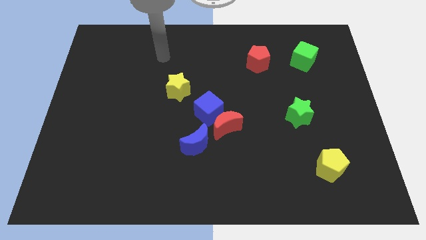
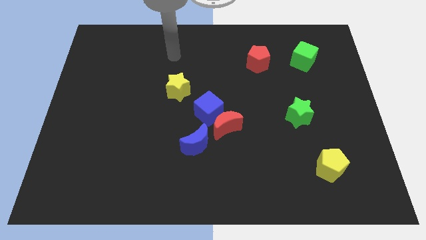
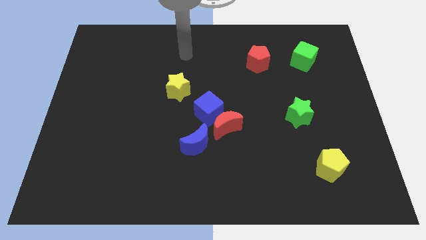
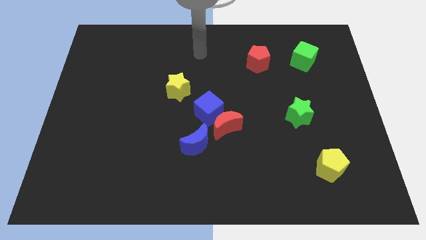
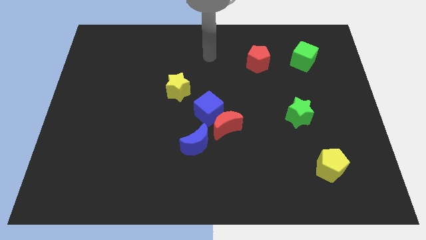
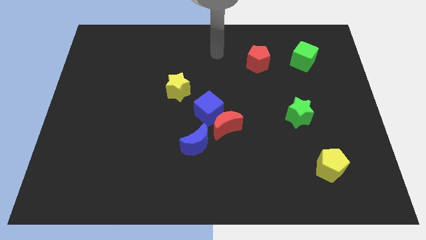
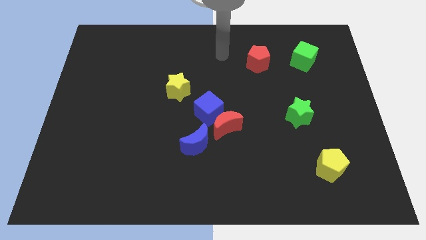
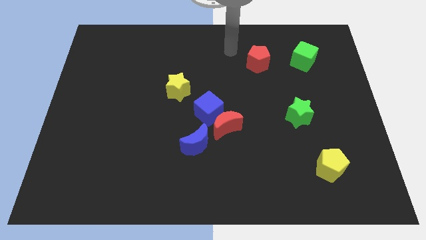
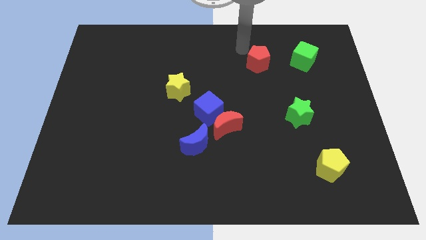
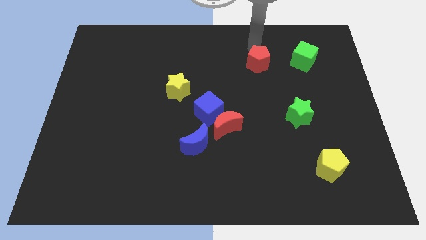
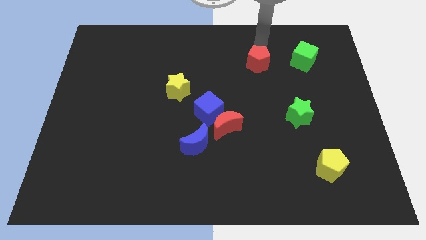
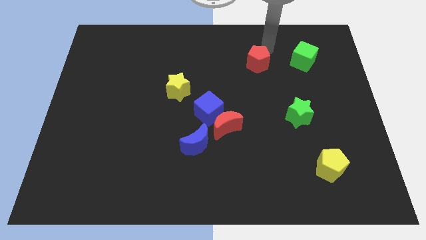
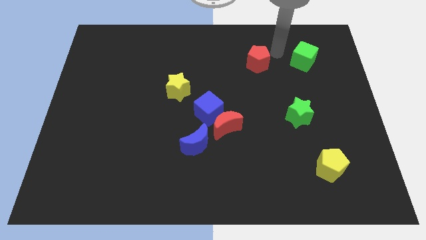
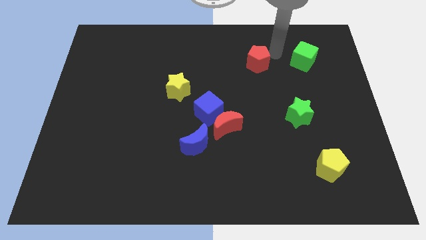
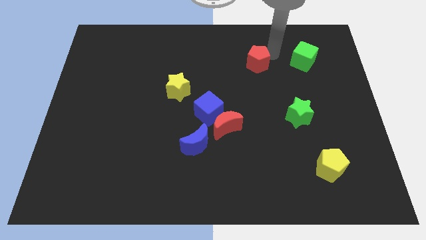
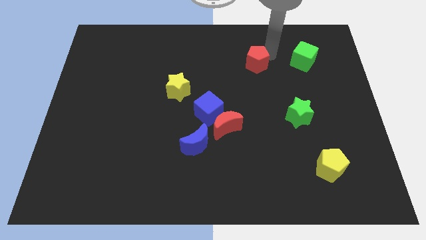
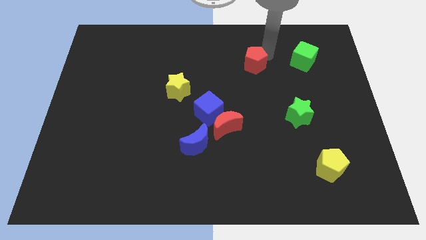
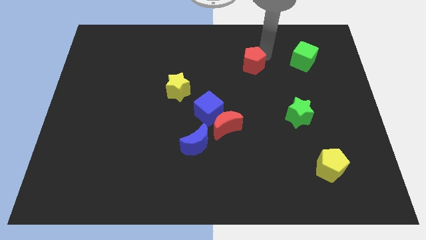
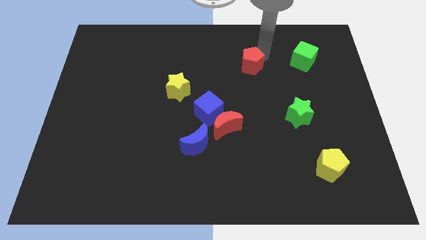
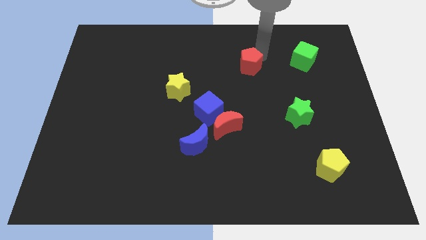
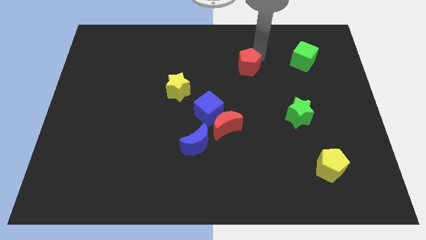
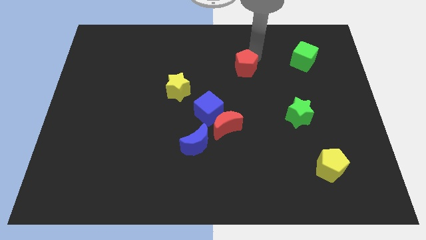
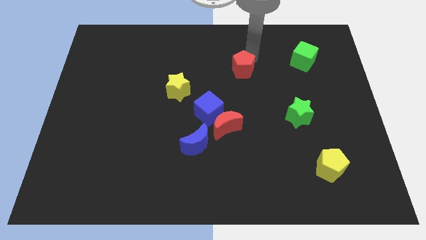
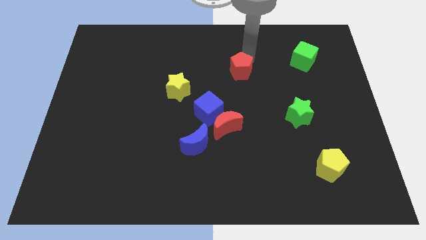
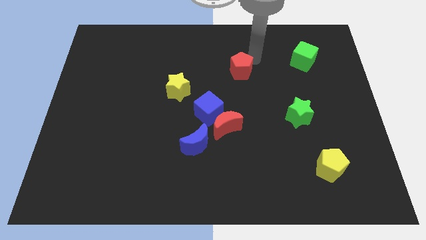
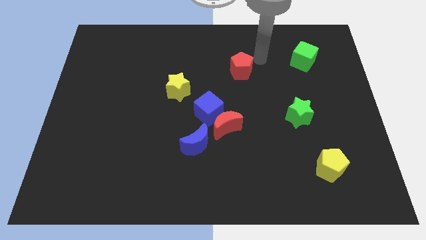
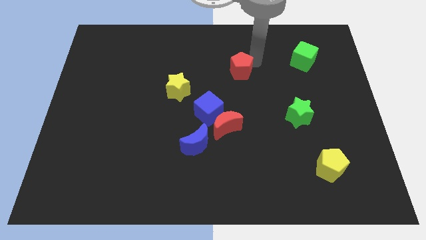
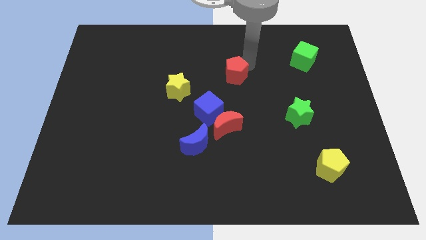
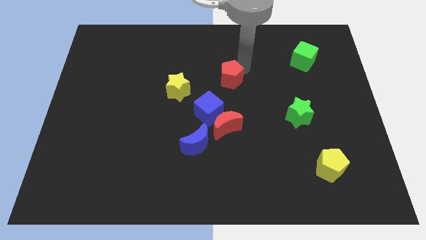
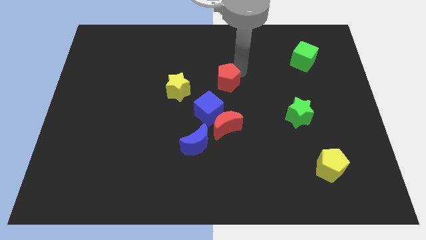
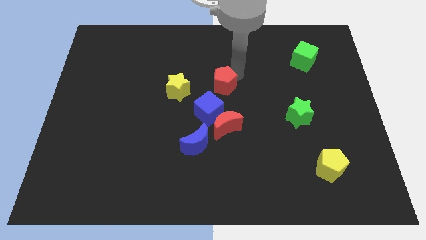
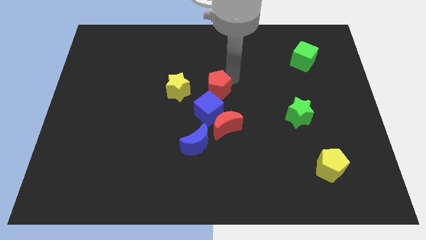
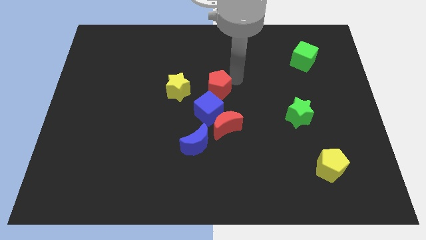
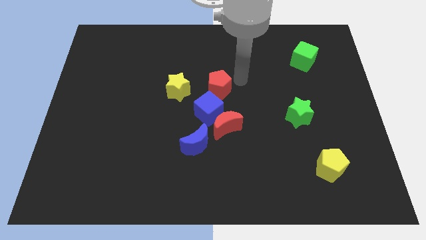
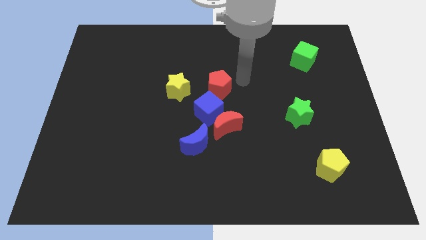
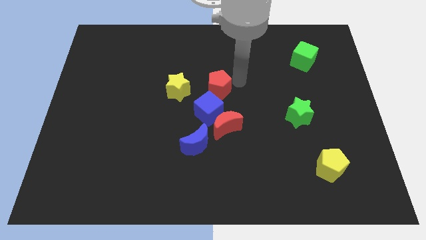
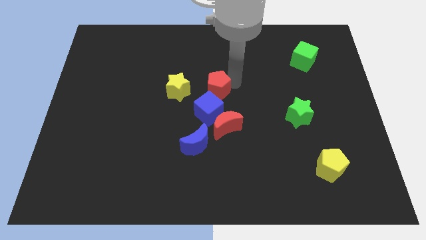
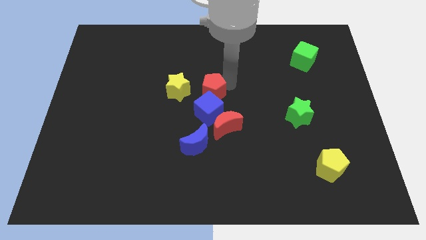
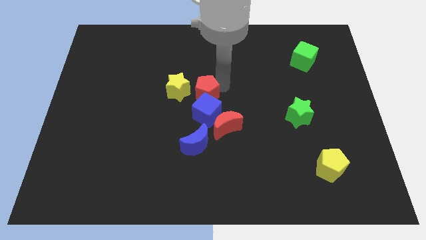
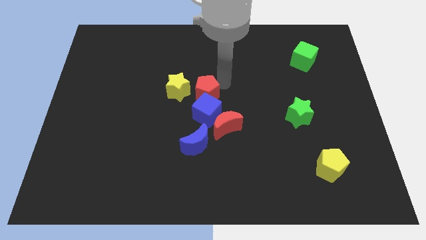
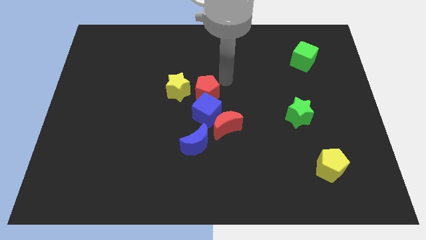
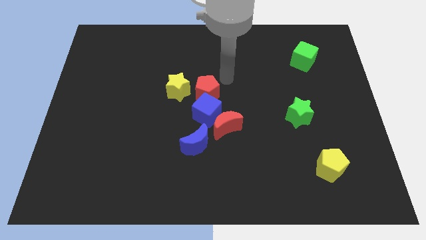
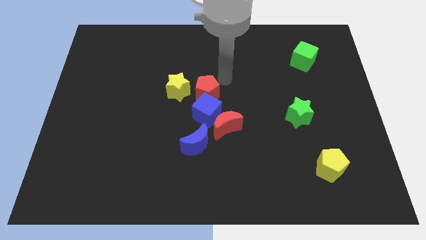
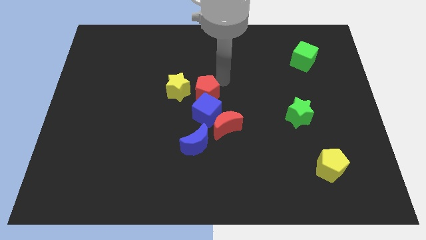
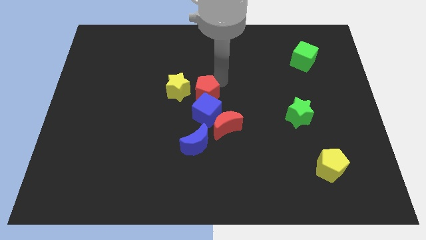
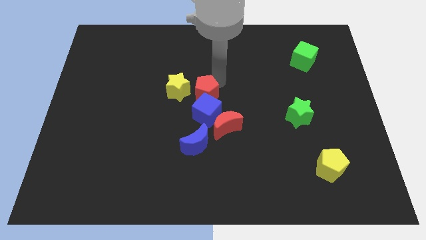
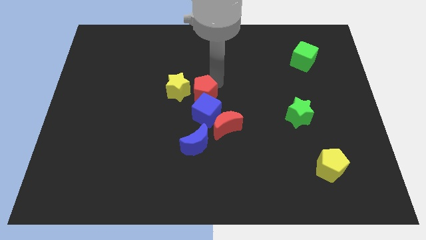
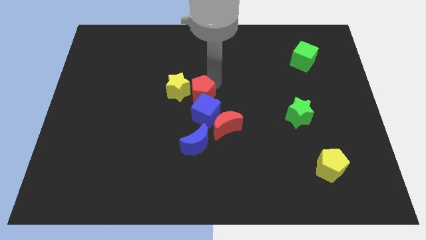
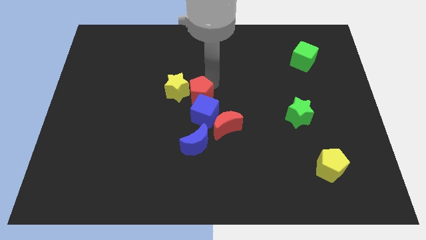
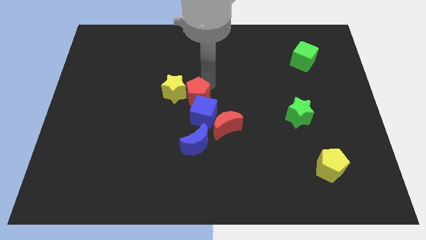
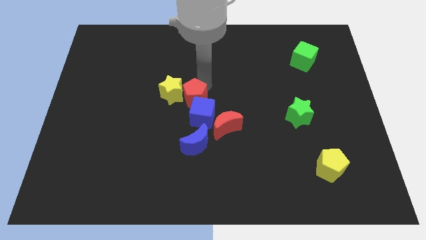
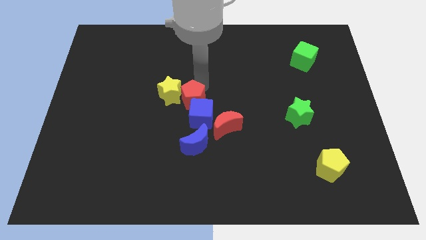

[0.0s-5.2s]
push the red pentagon downwards and to the left

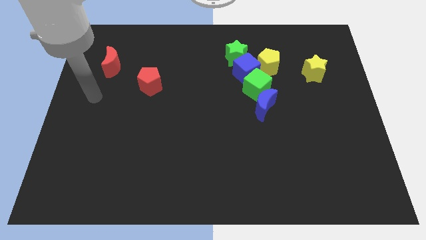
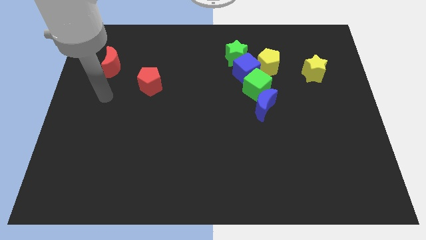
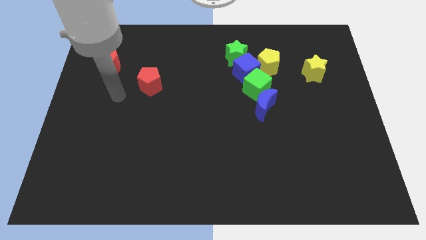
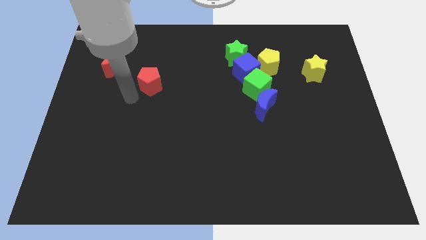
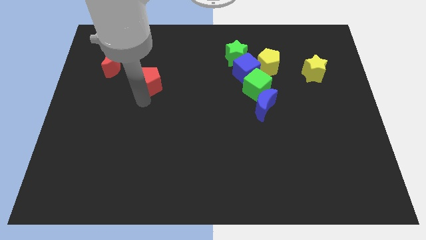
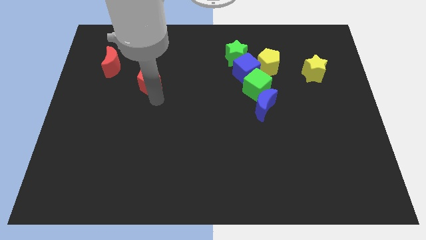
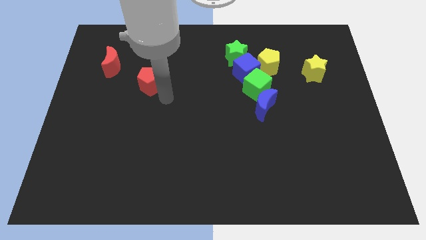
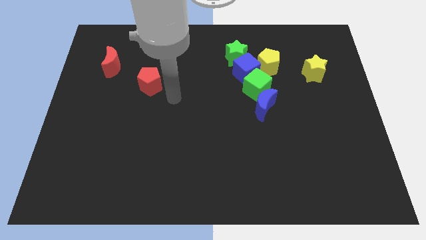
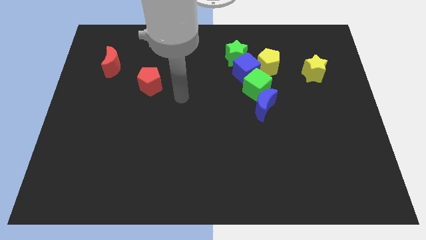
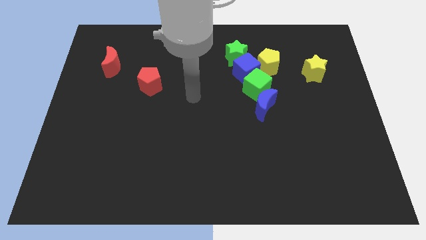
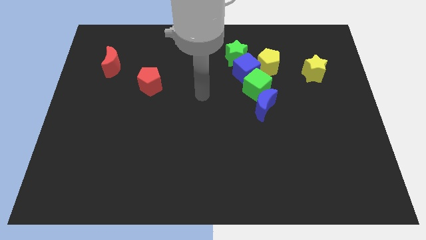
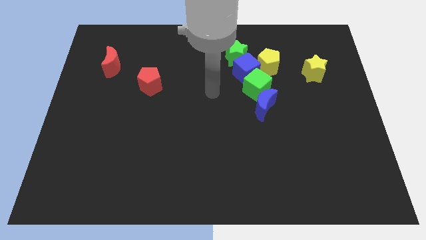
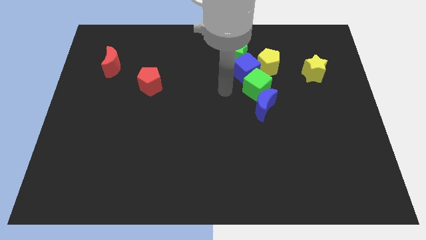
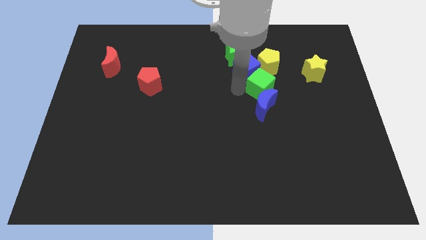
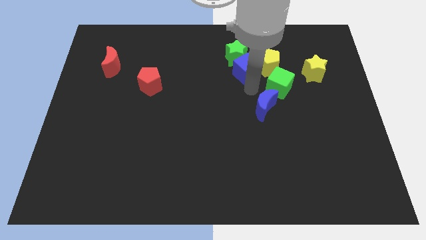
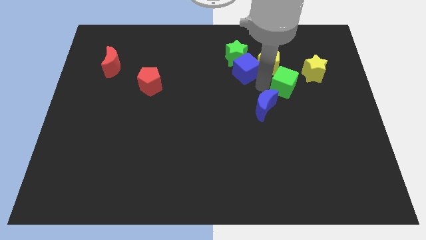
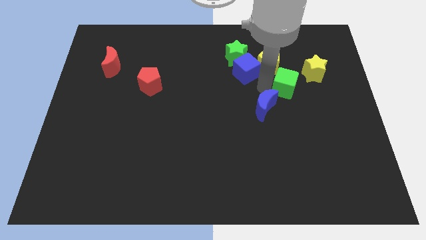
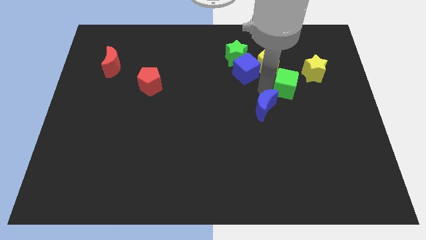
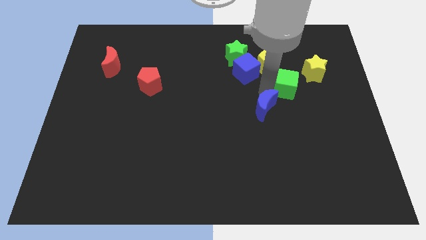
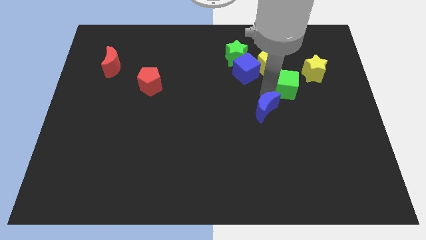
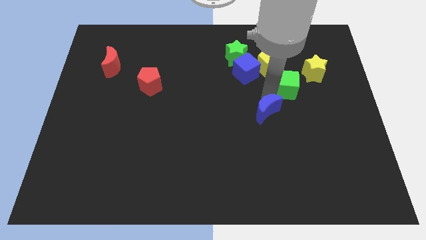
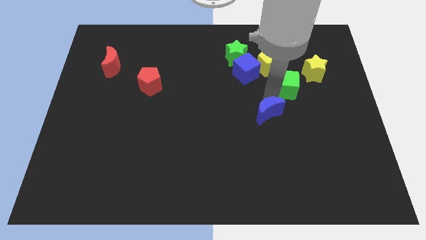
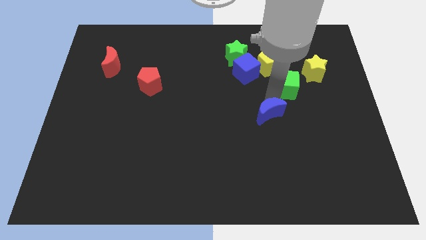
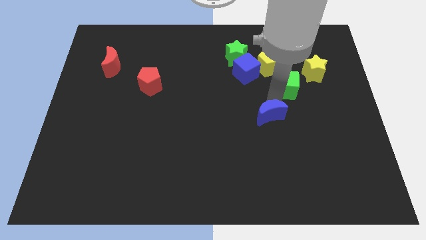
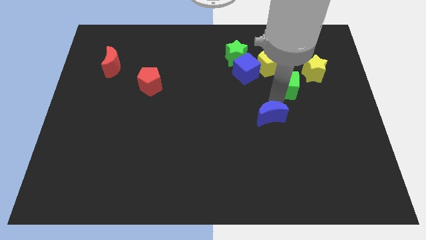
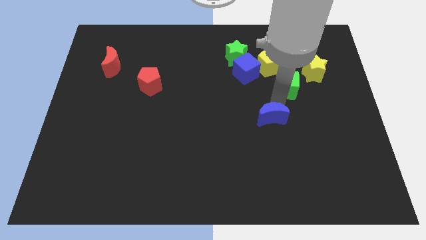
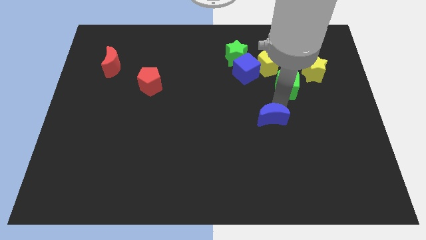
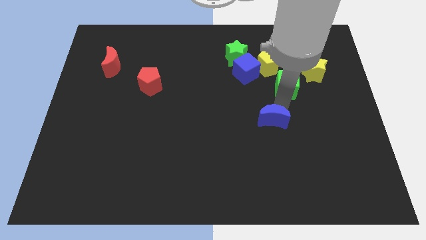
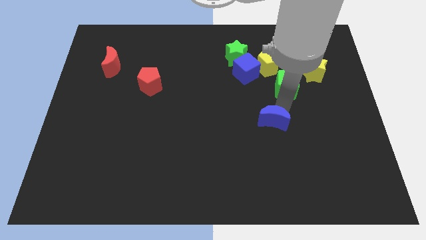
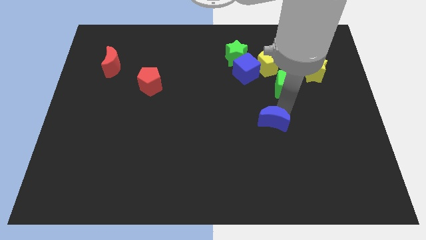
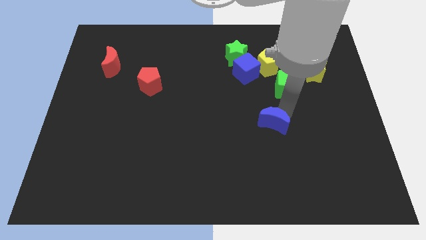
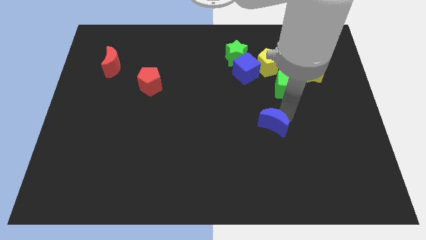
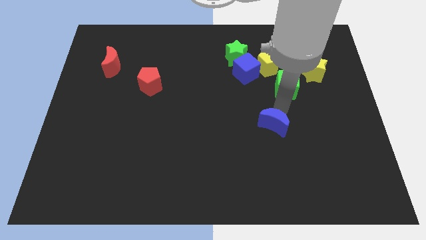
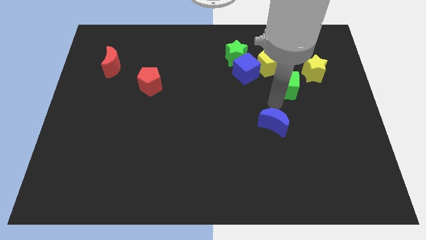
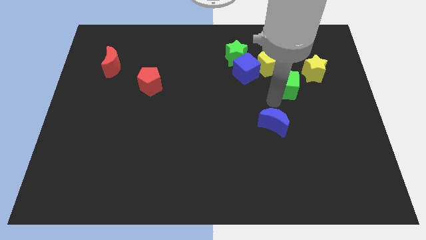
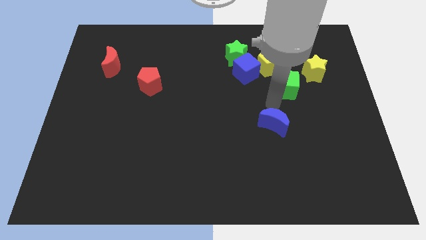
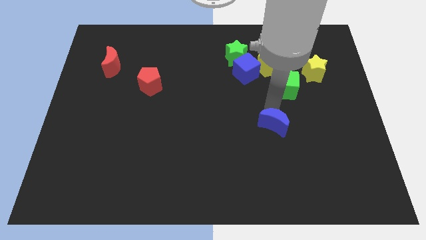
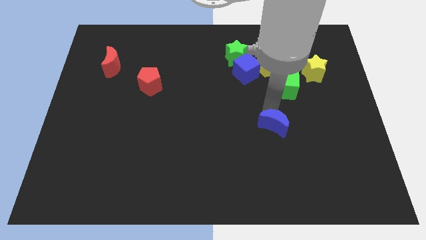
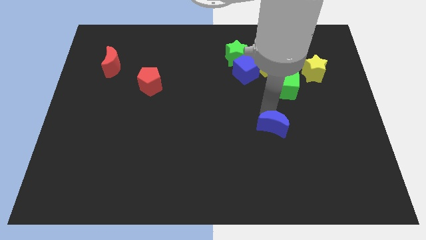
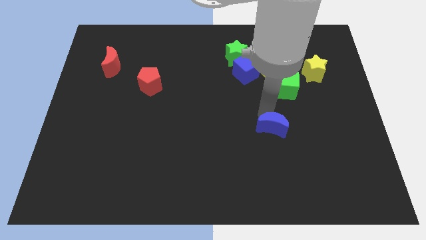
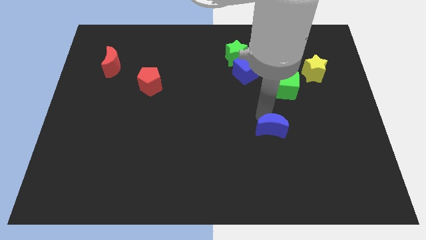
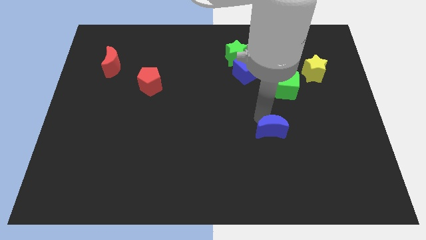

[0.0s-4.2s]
move the blue moon a little bit downwards
